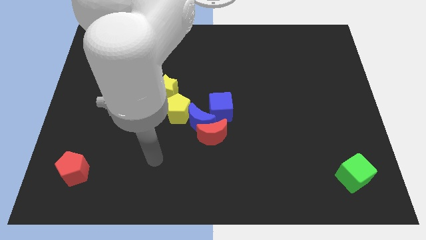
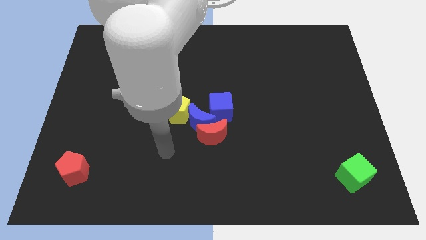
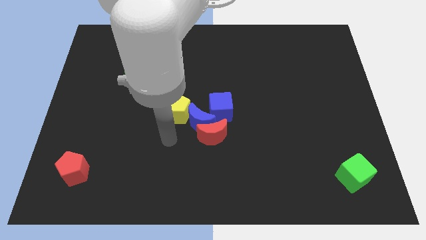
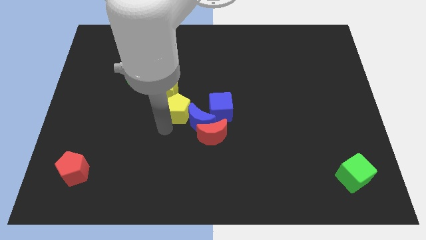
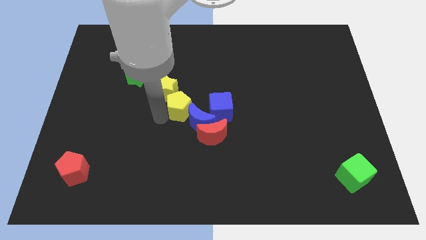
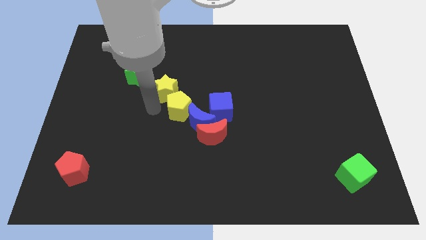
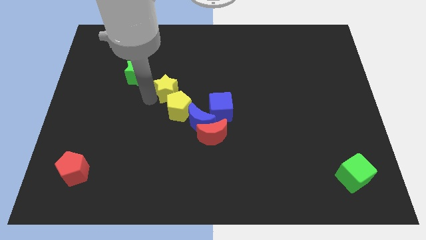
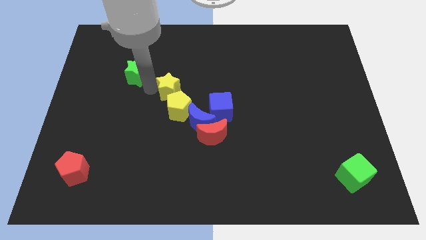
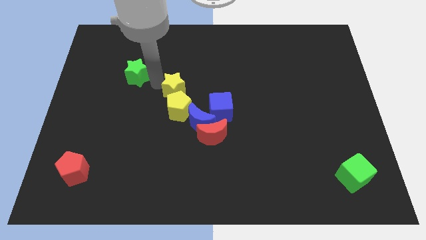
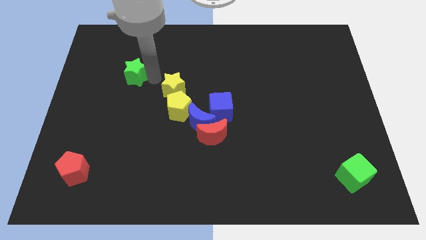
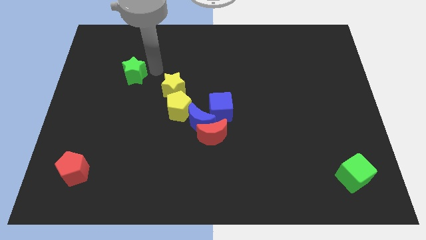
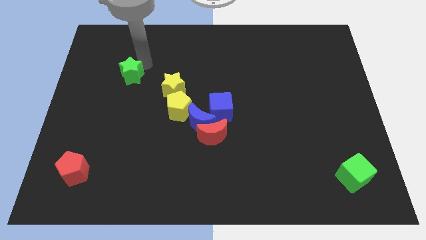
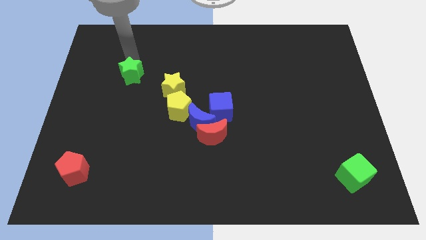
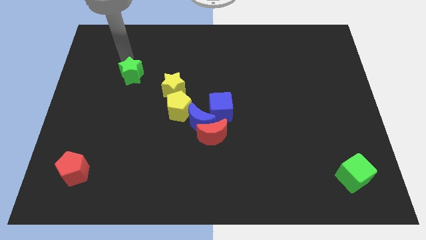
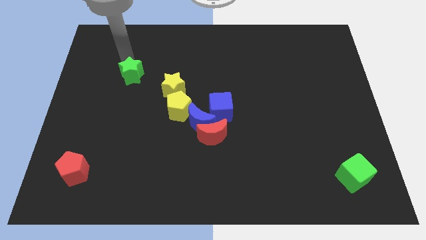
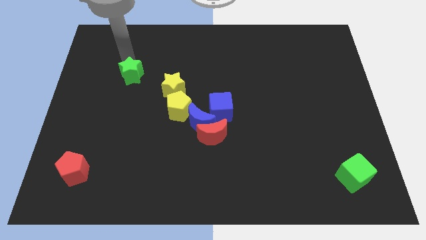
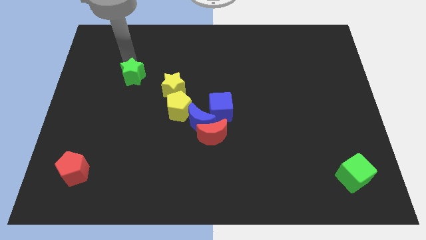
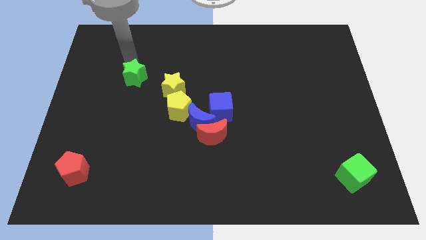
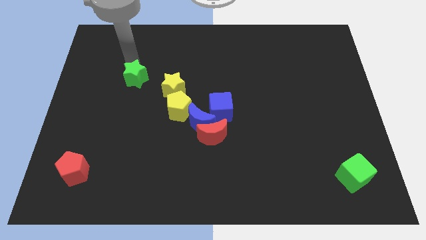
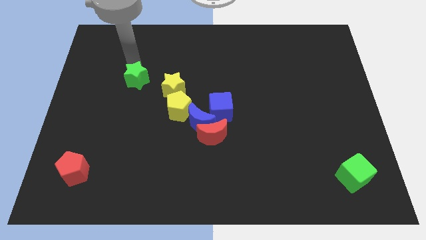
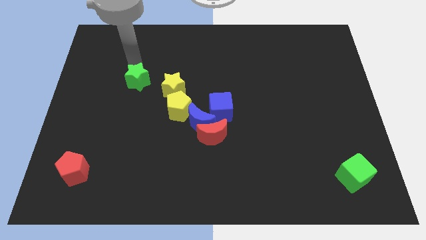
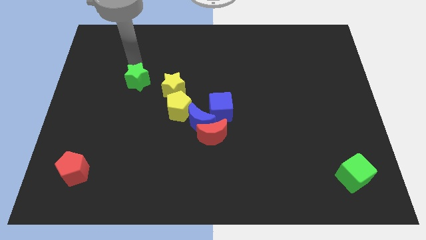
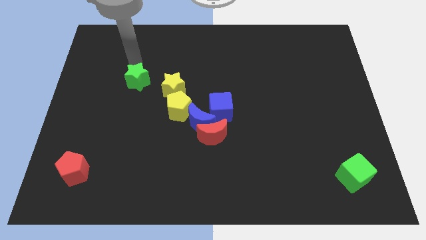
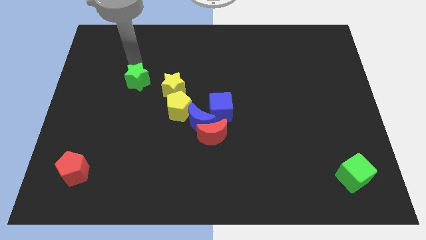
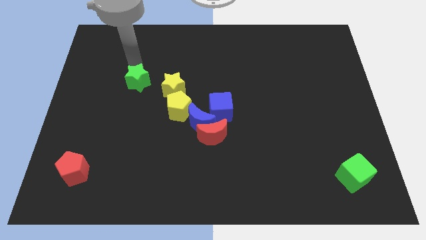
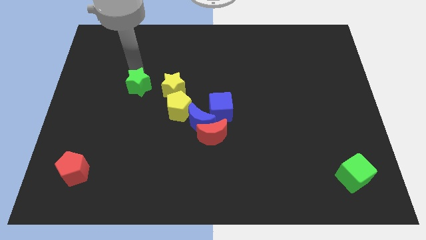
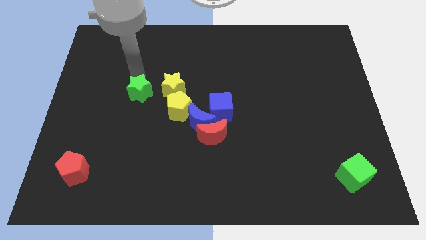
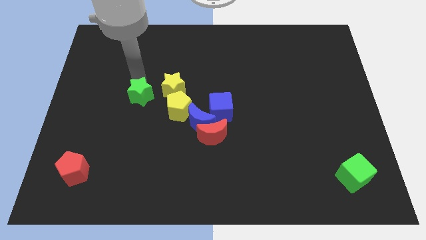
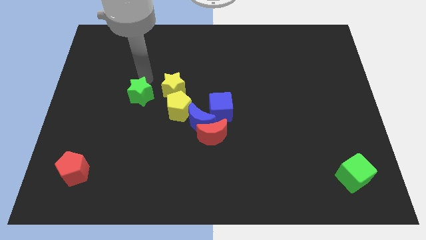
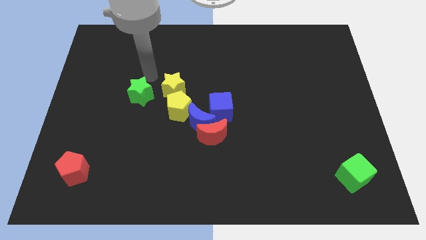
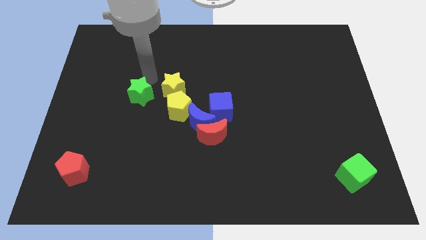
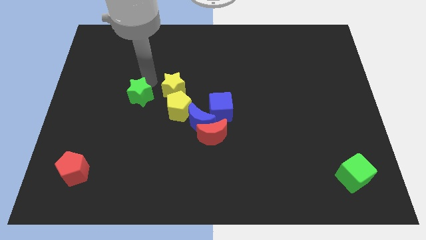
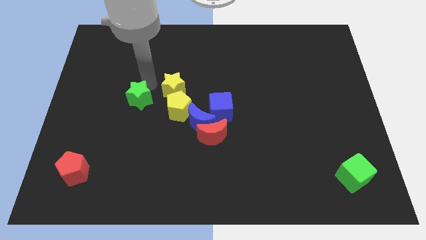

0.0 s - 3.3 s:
slightly push the green star downwards

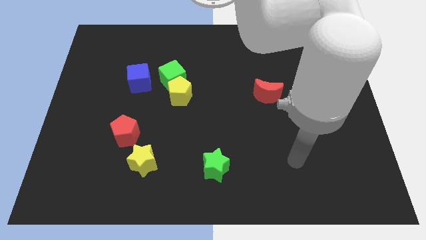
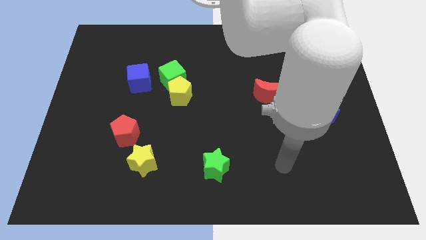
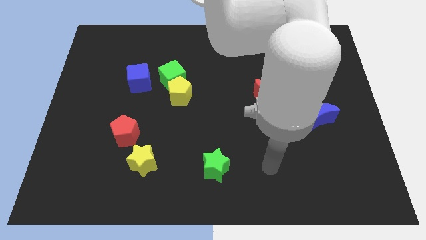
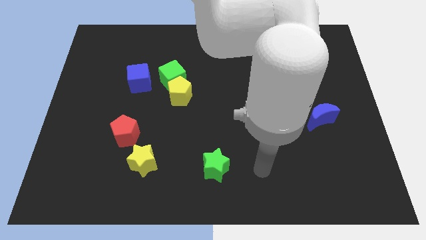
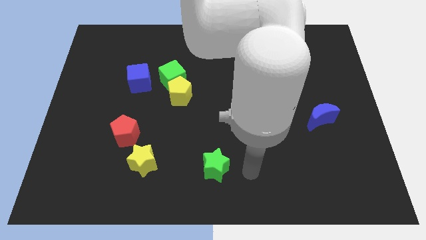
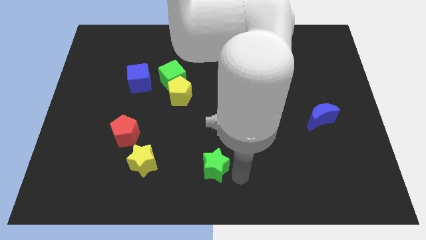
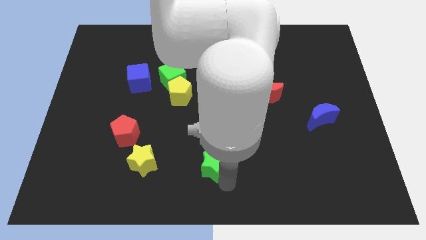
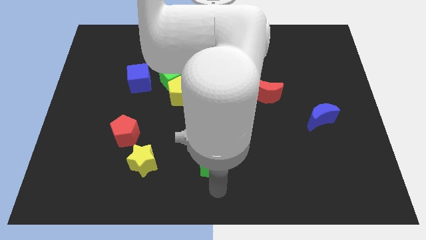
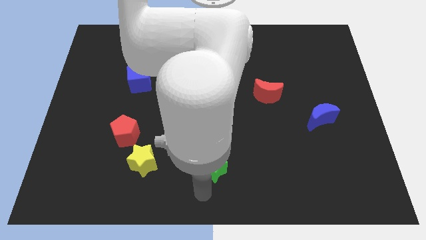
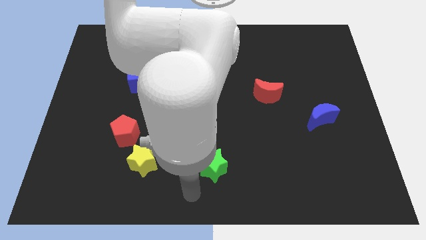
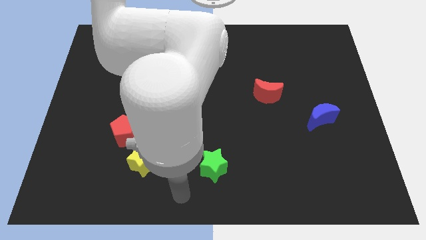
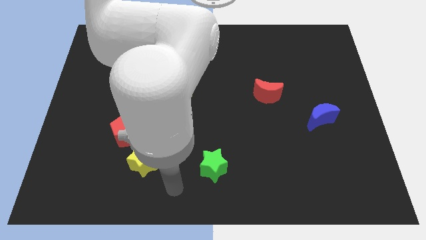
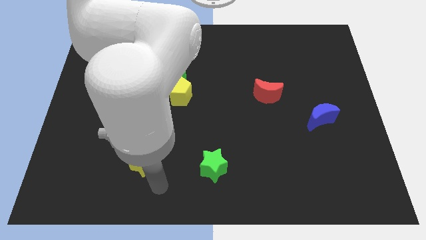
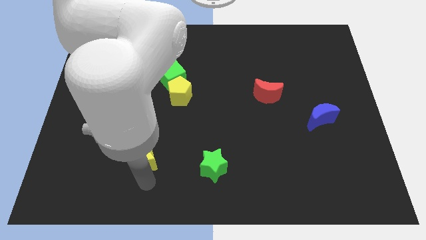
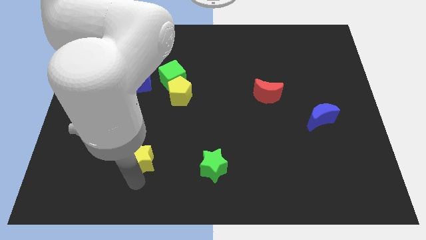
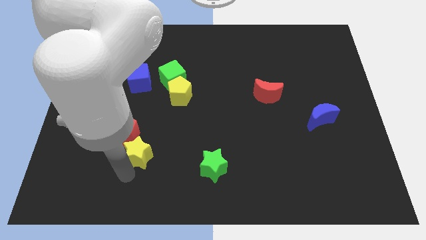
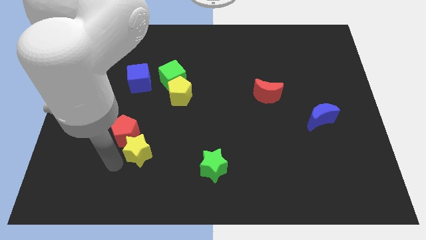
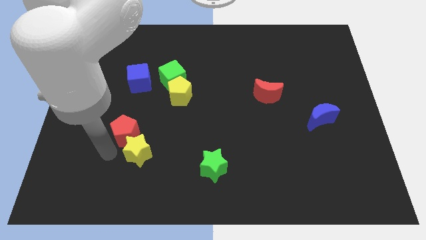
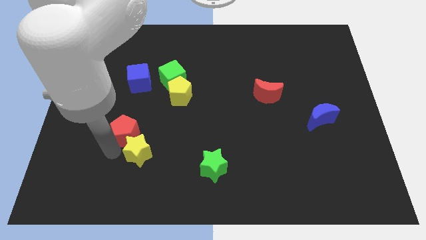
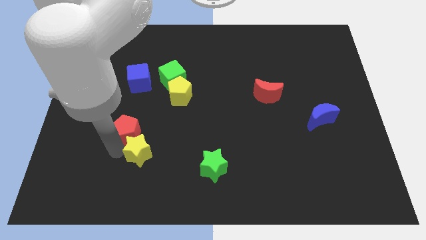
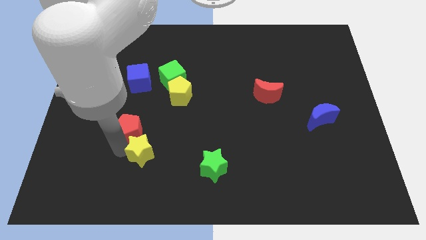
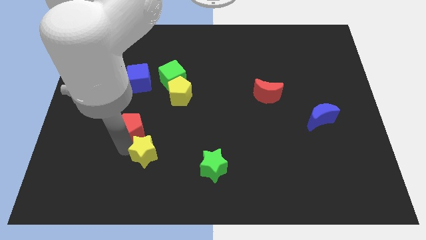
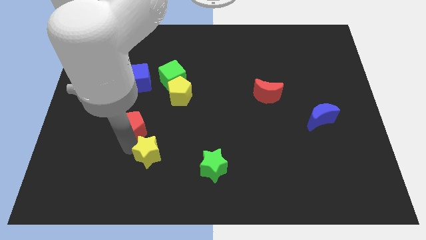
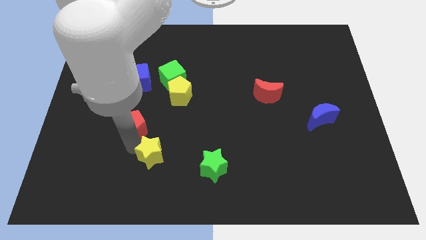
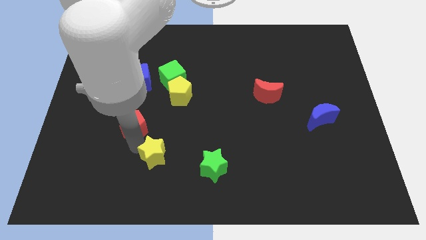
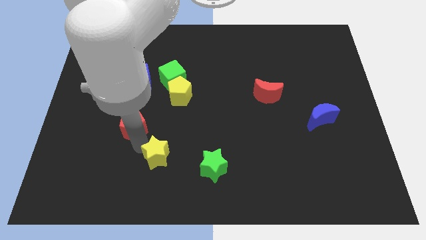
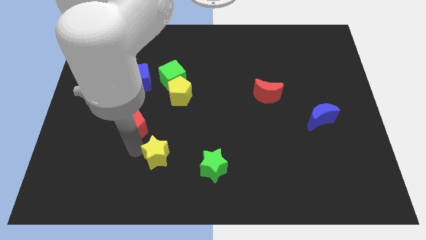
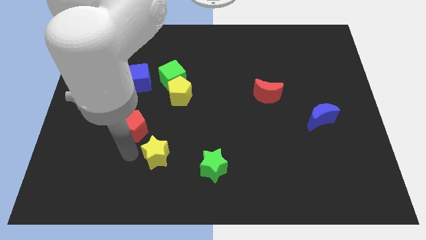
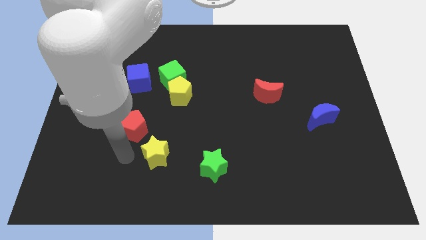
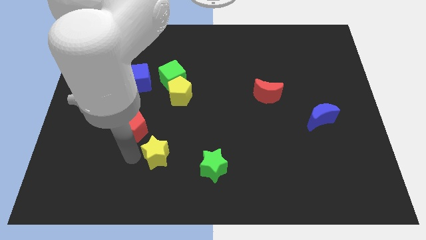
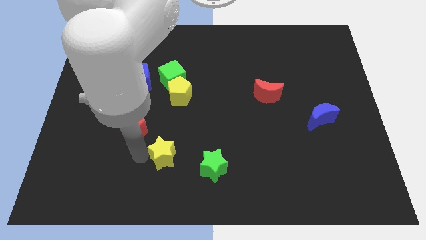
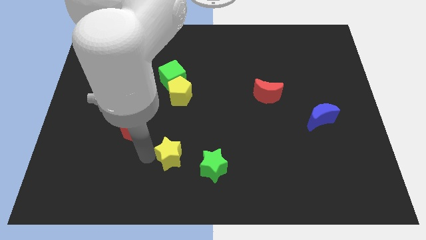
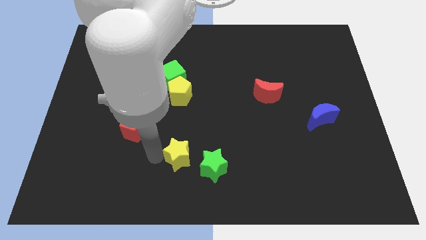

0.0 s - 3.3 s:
push the yellow star to the right a little bit

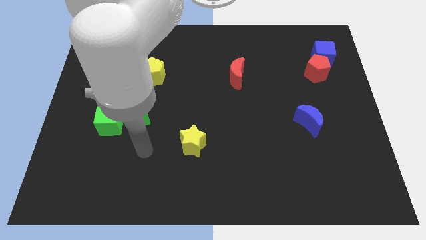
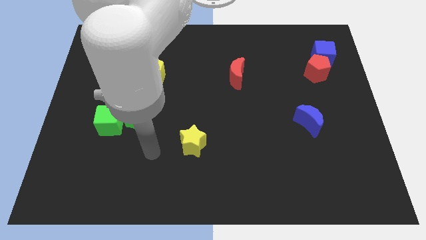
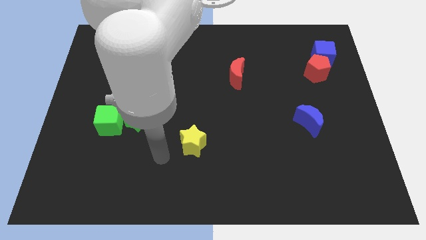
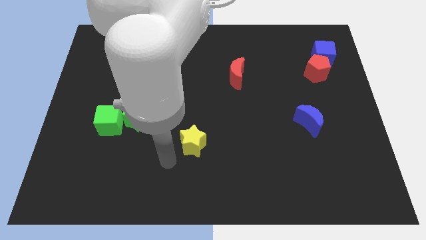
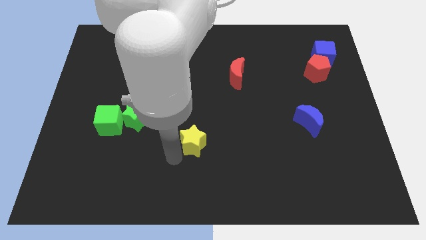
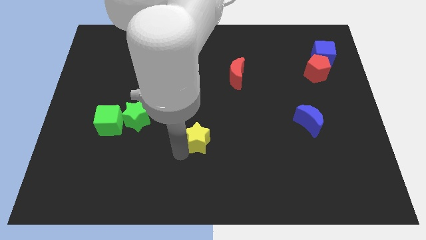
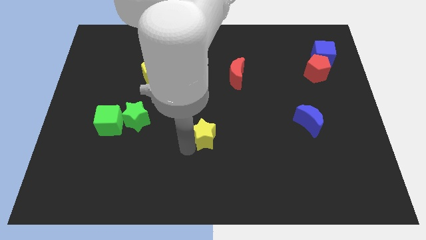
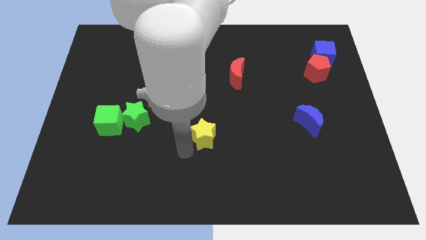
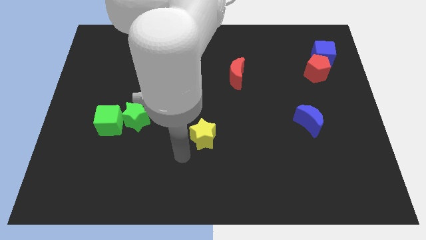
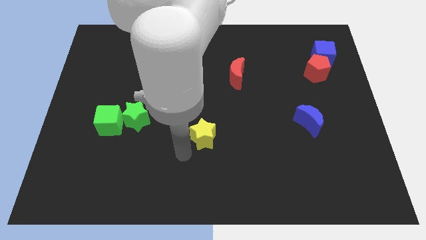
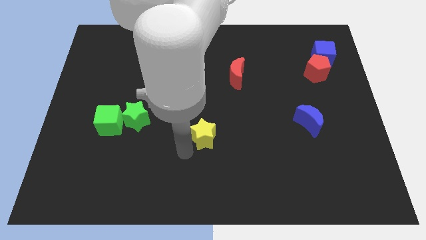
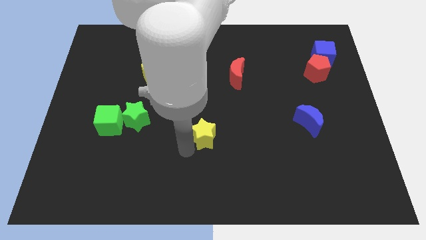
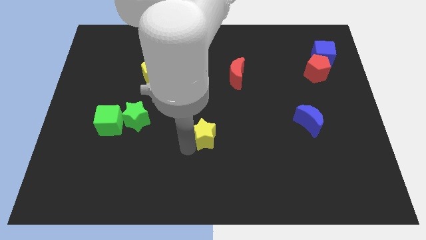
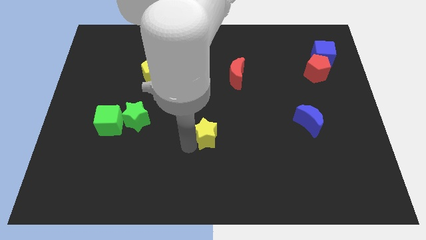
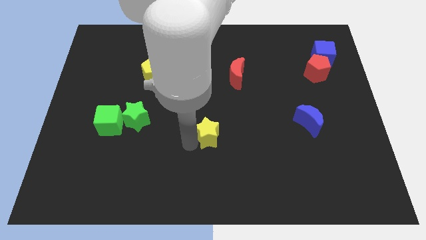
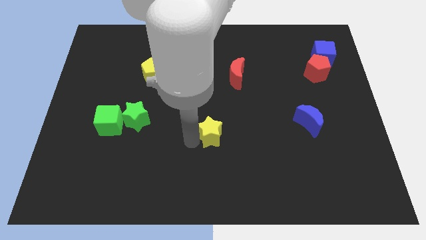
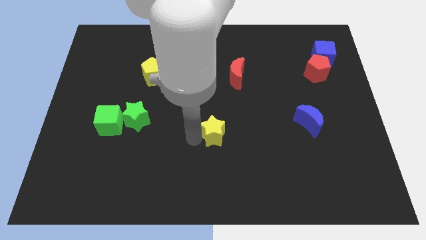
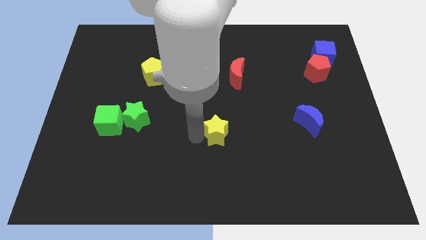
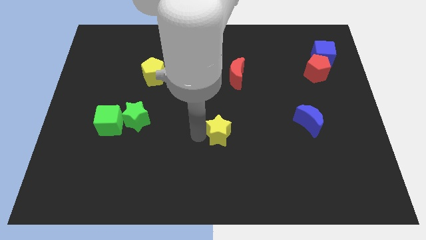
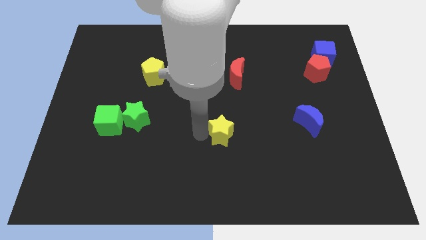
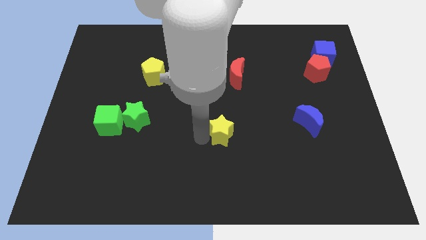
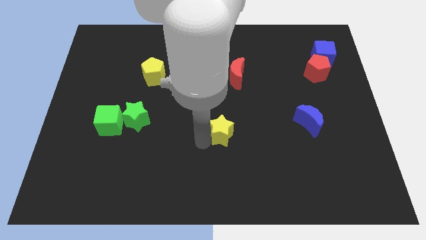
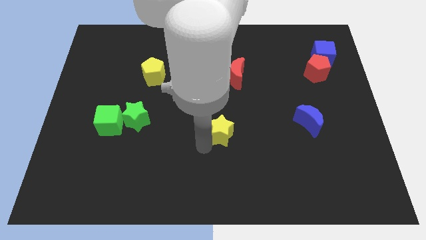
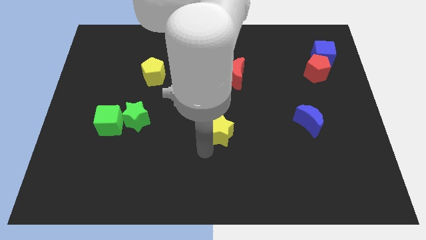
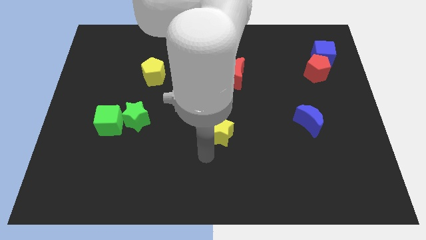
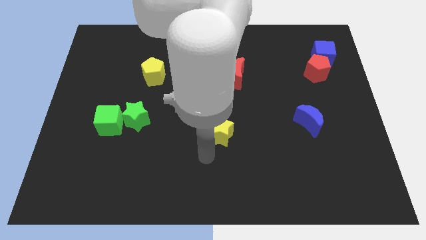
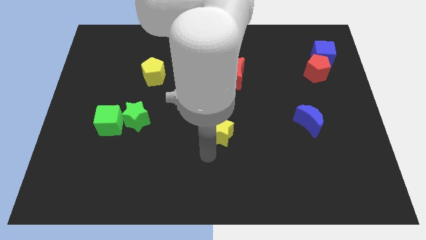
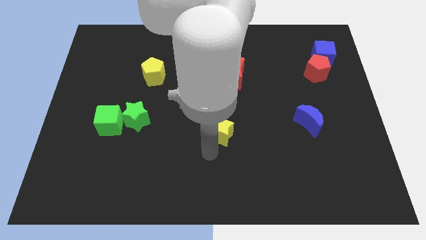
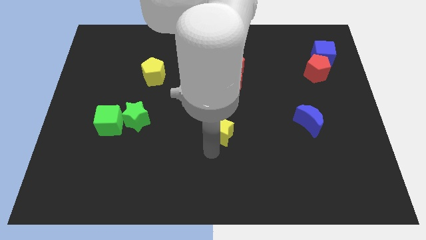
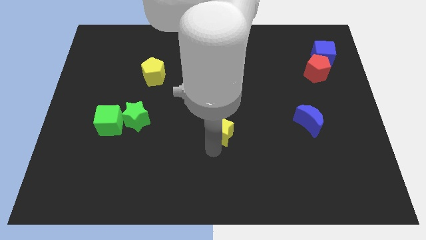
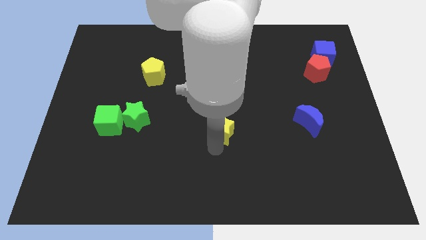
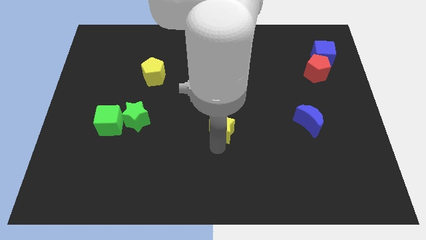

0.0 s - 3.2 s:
push the yellow star upwards and right a little bit
